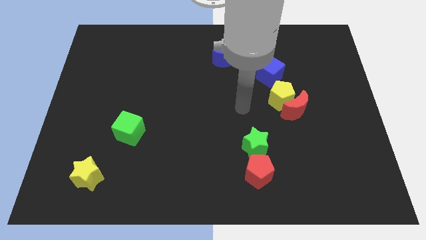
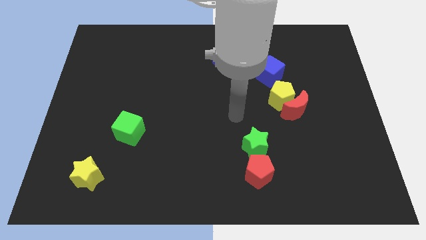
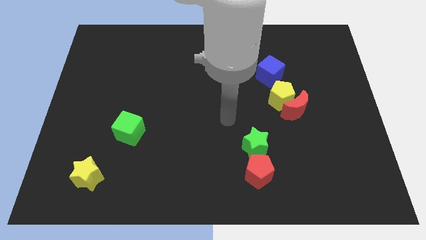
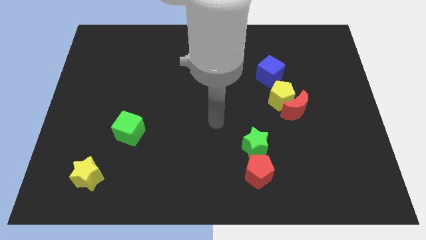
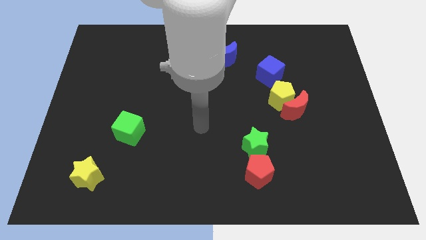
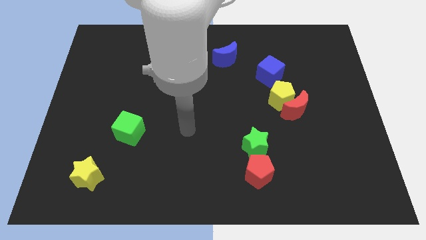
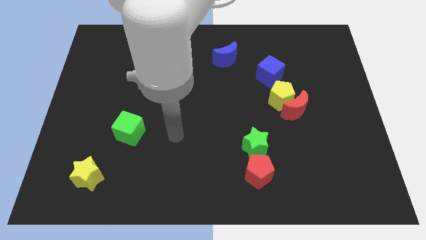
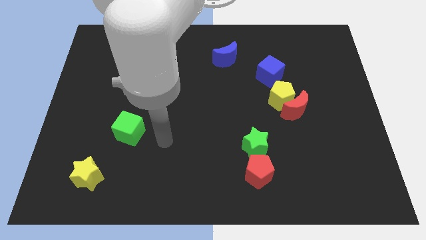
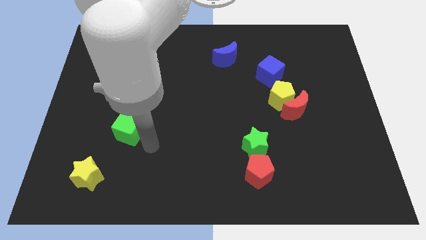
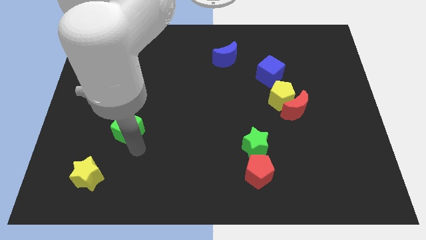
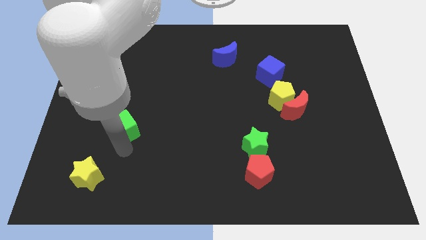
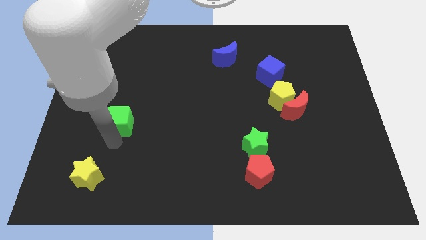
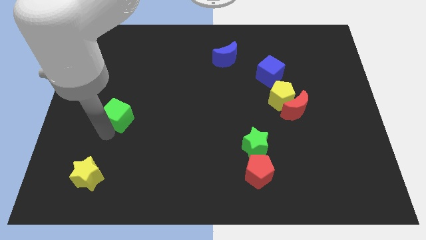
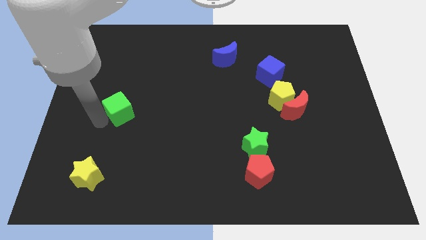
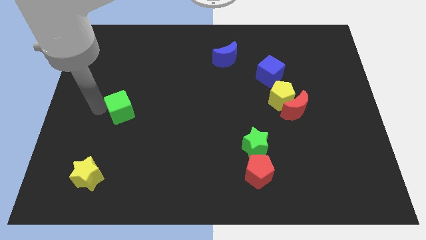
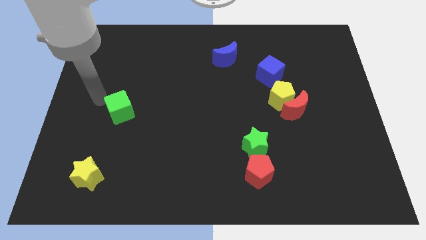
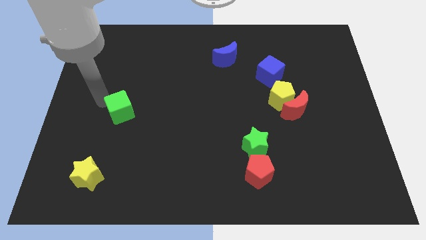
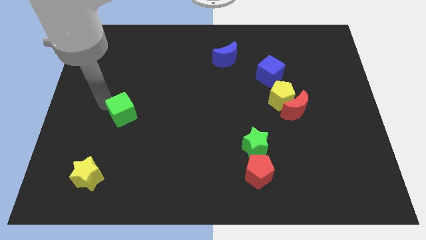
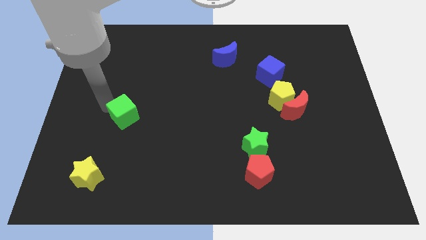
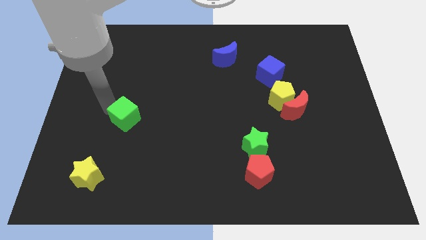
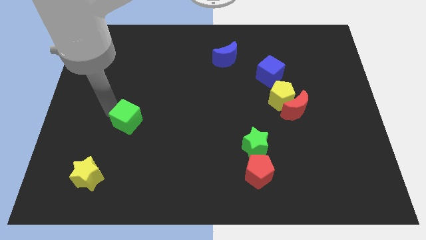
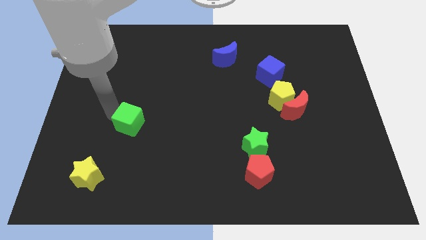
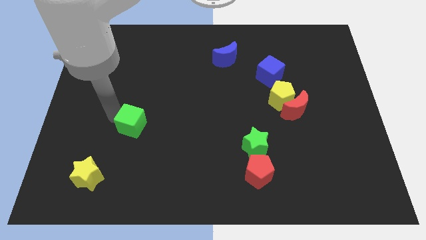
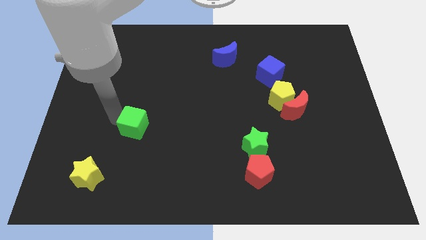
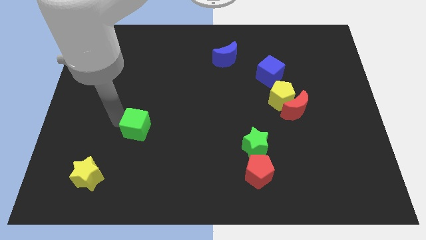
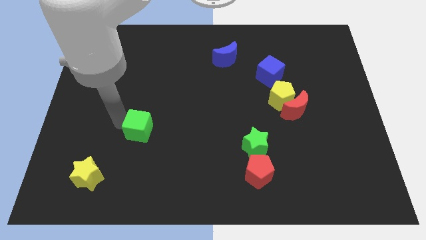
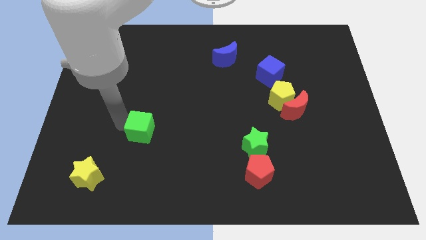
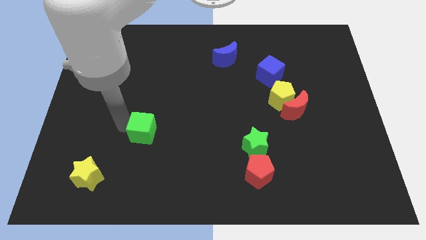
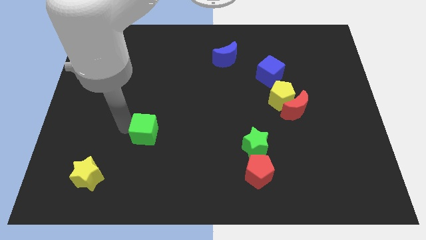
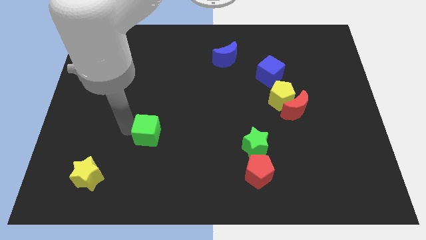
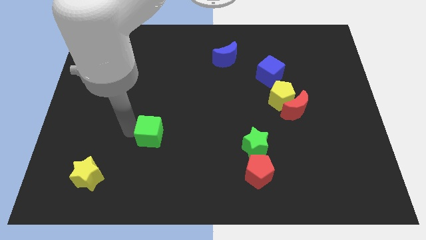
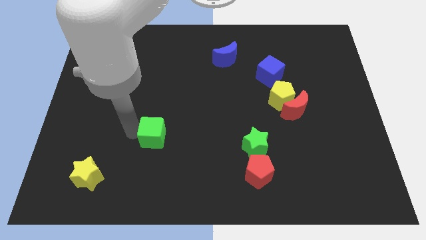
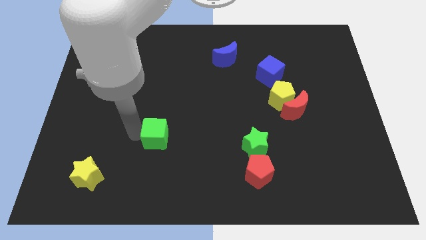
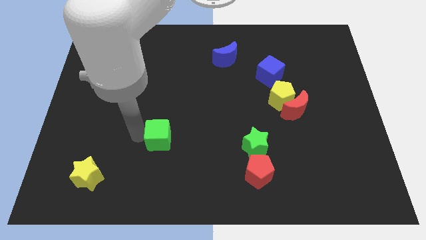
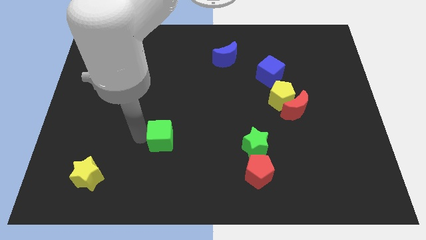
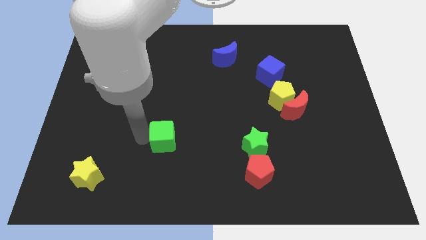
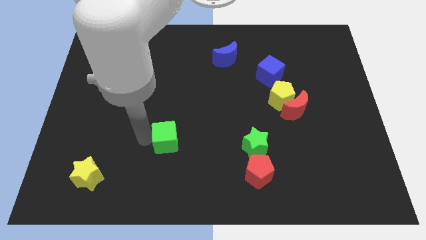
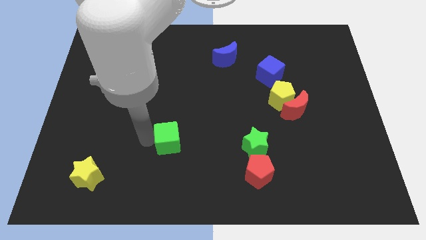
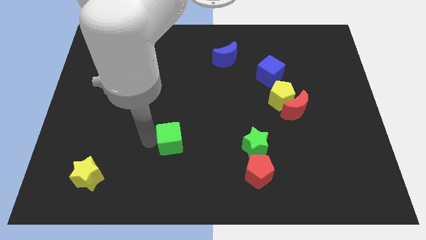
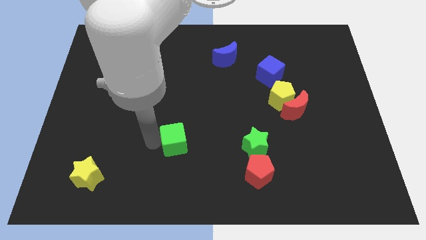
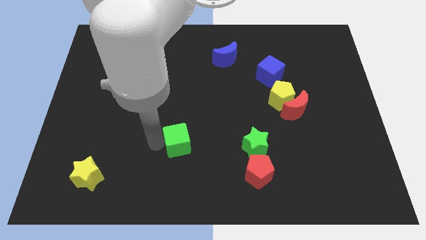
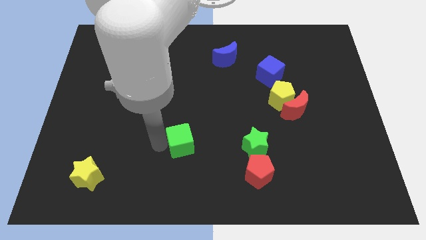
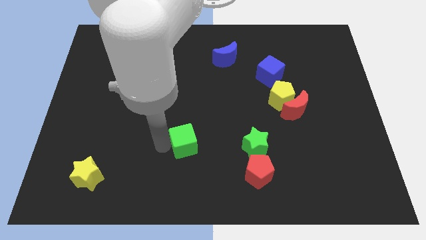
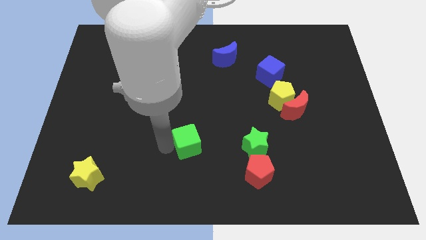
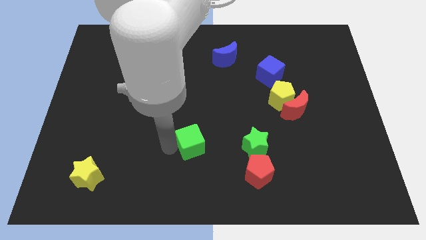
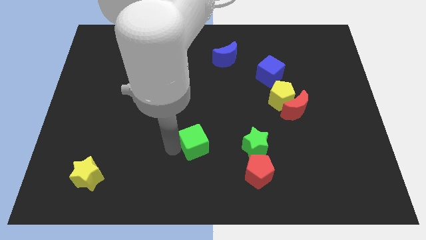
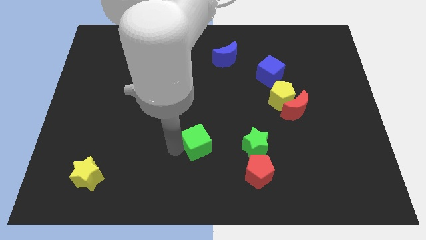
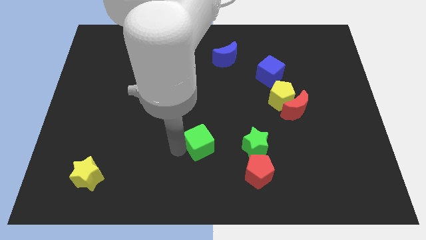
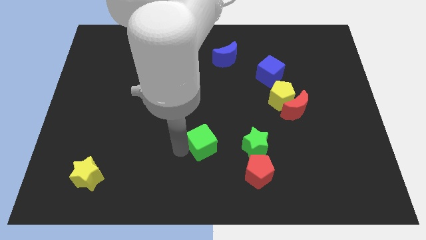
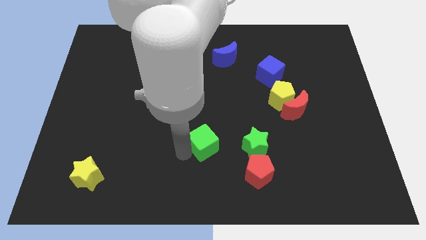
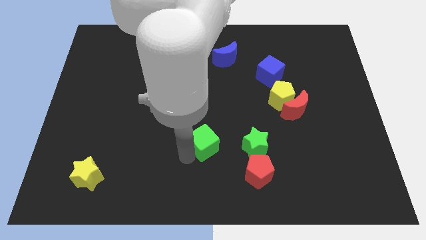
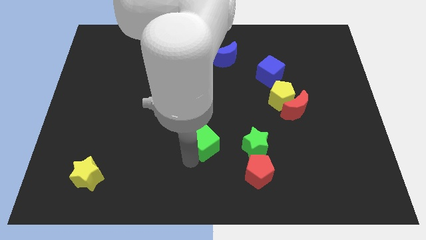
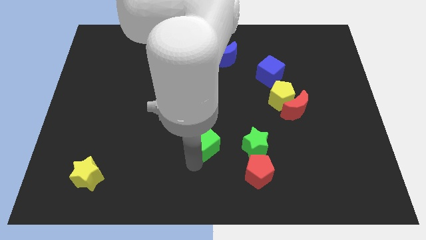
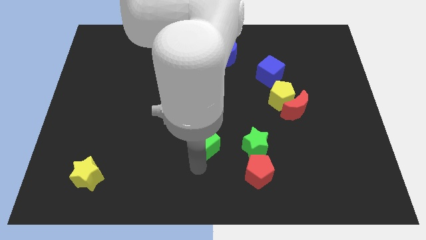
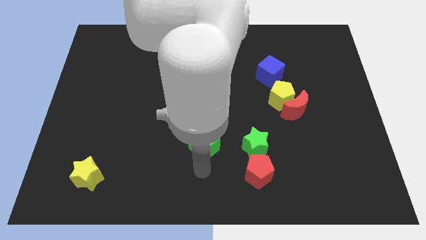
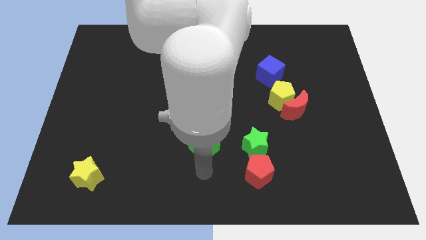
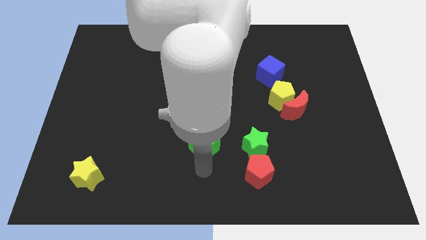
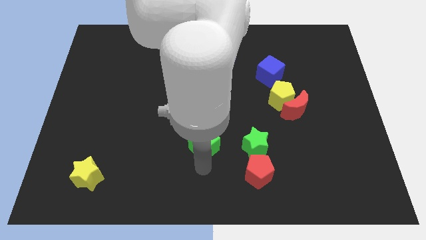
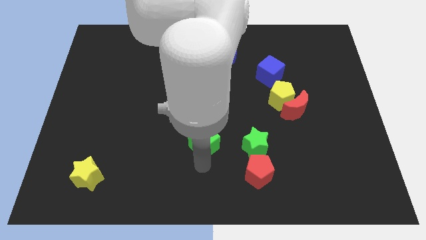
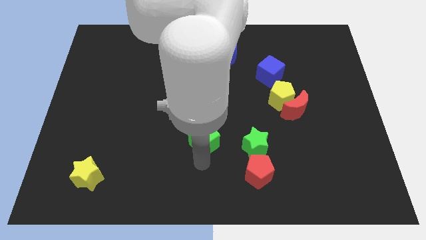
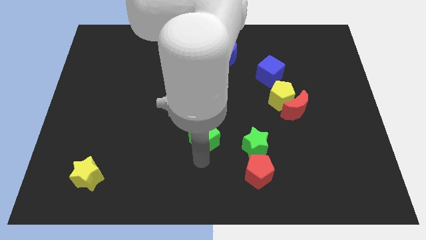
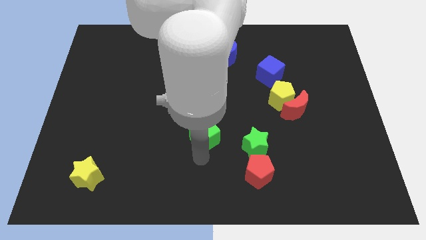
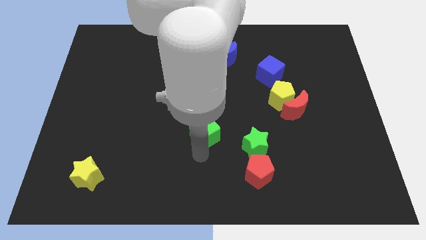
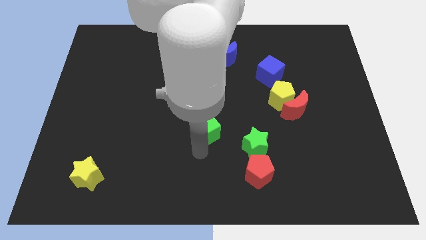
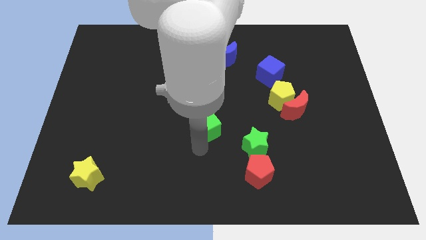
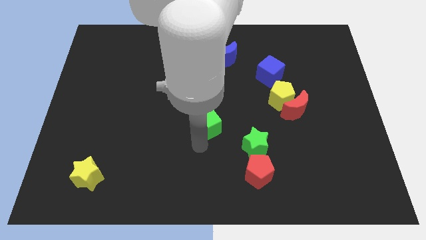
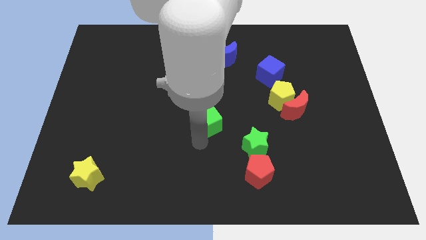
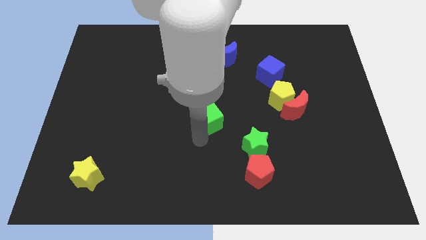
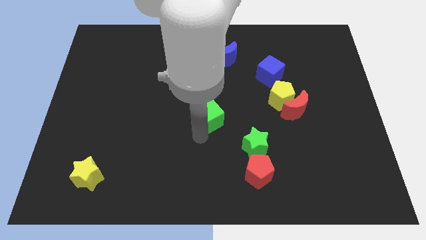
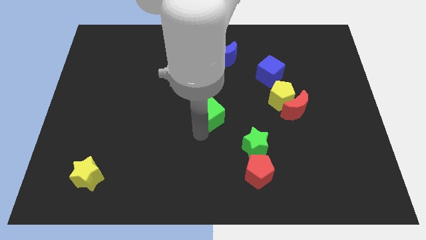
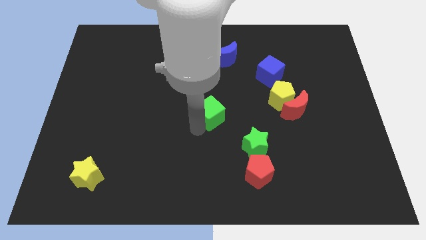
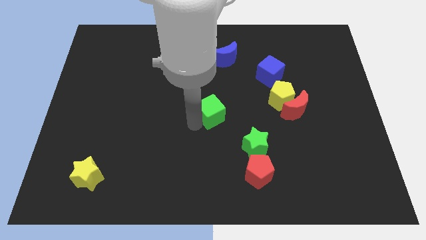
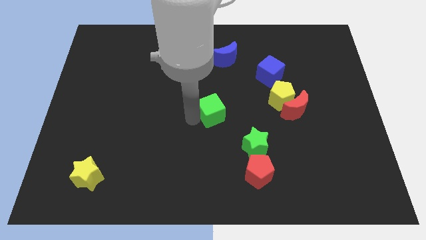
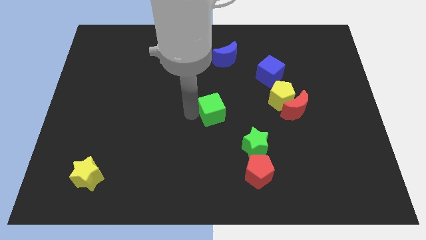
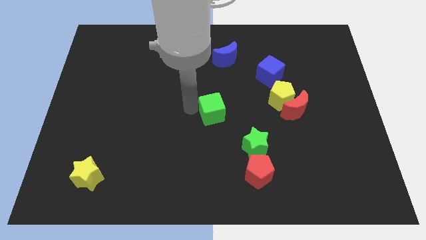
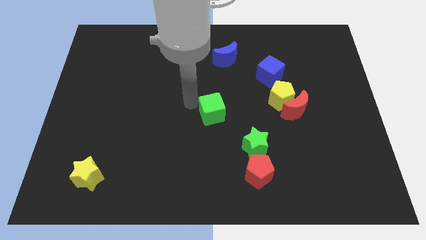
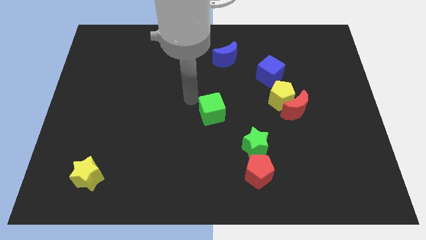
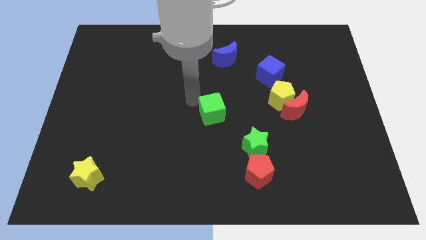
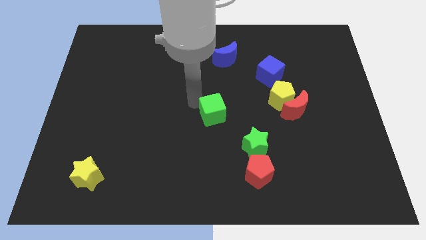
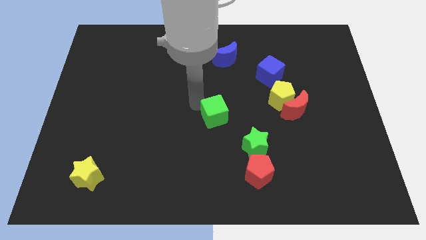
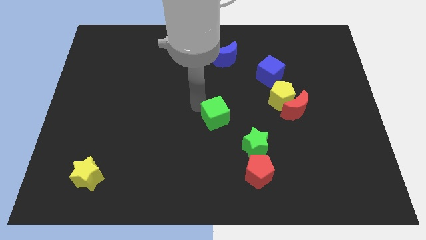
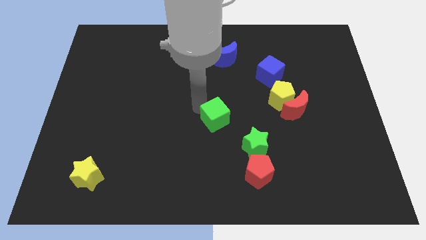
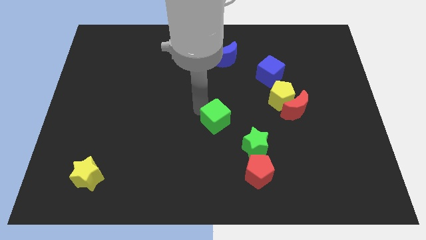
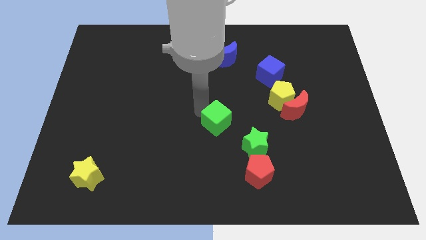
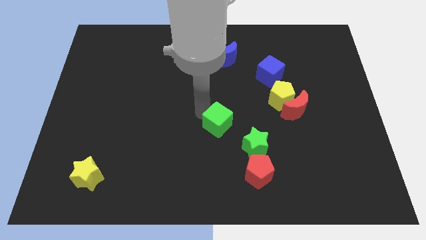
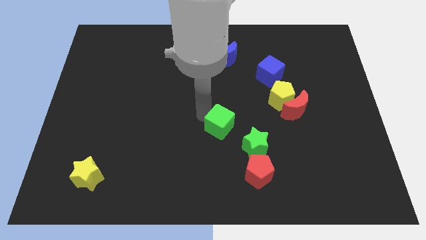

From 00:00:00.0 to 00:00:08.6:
move the green cube to the right
